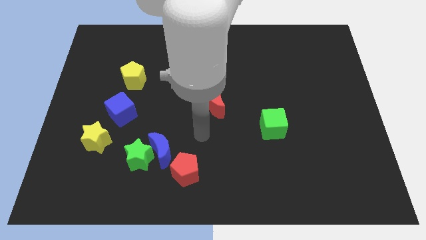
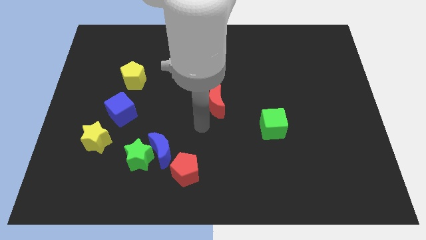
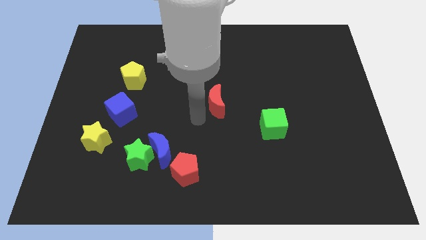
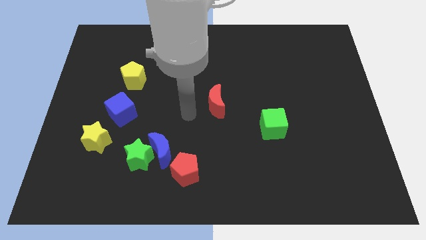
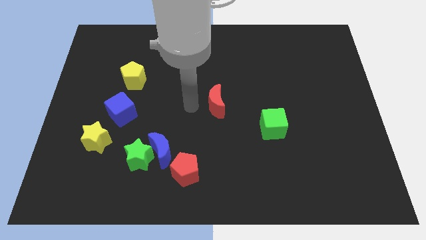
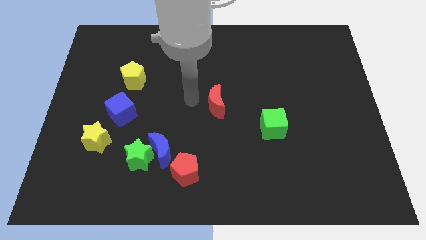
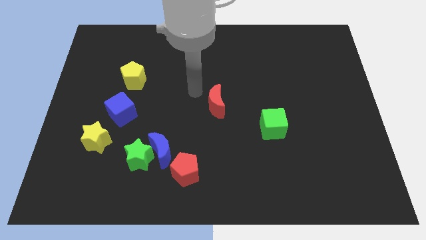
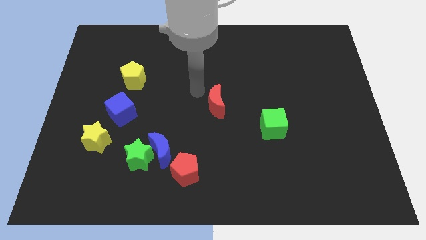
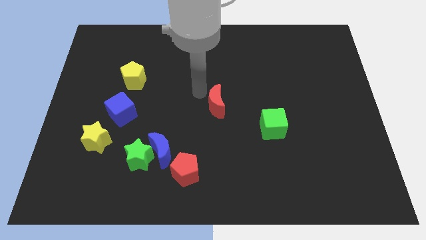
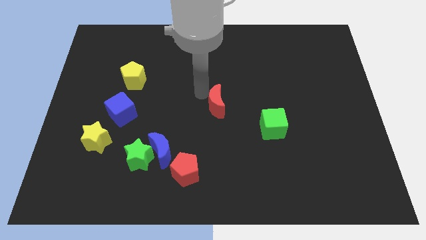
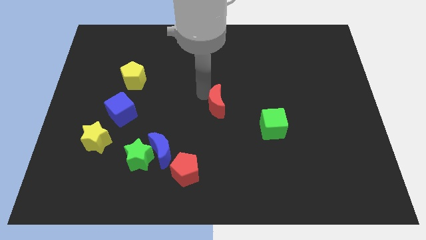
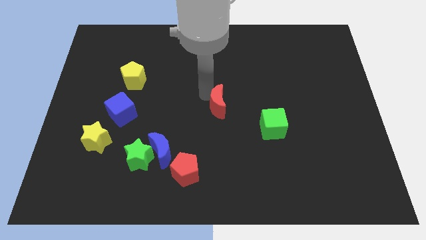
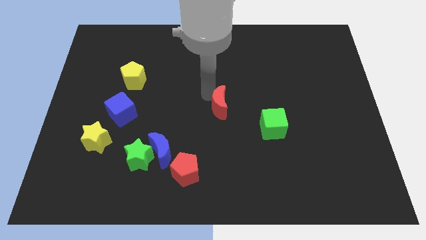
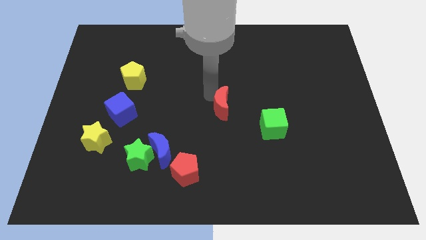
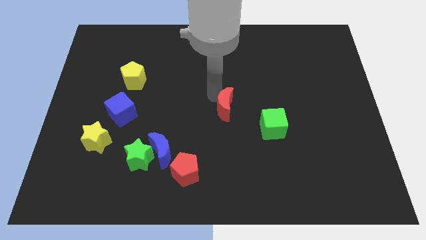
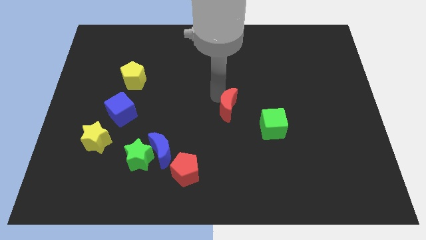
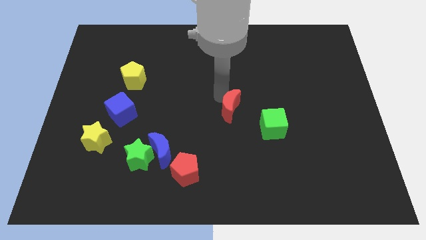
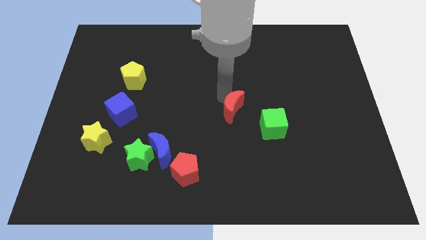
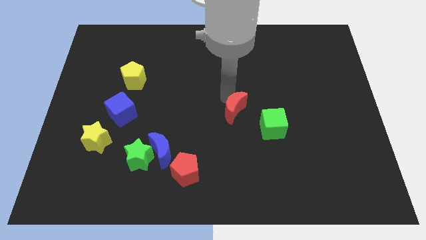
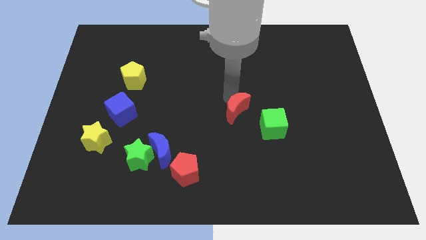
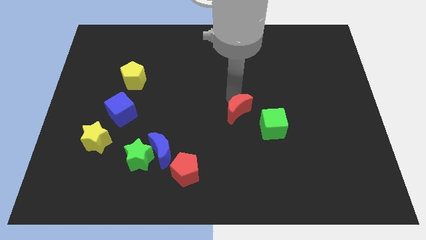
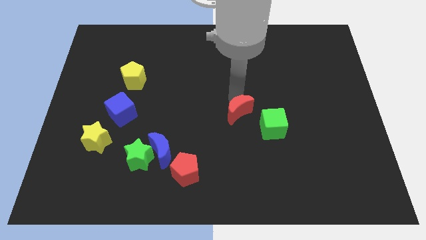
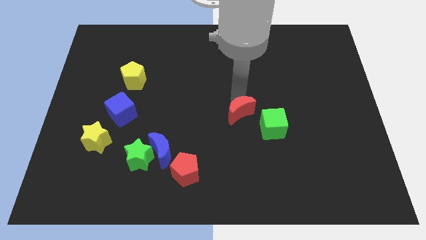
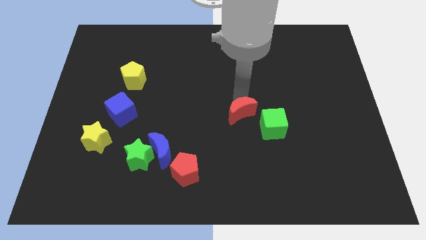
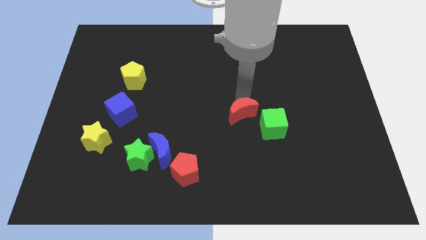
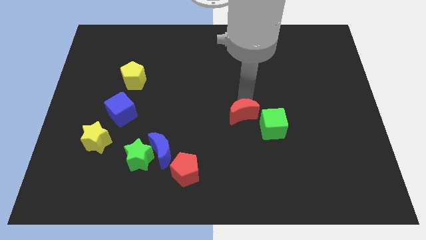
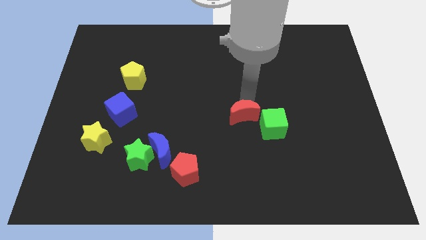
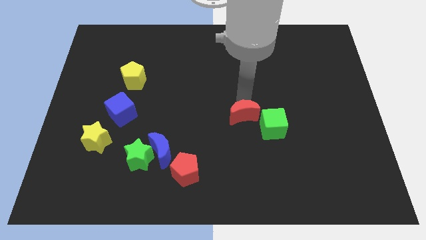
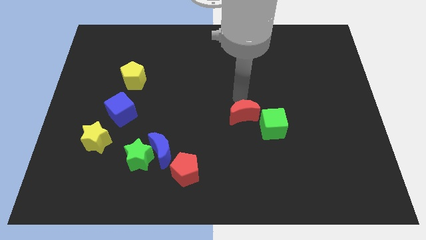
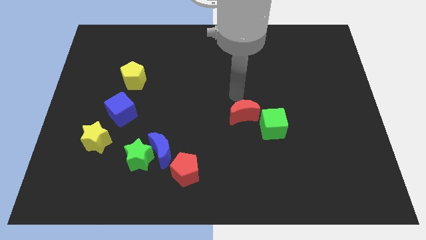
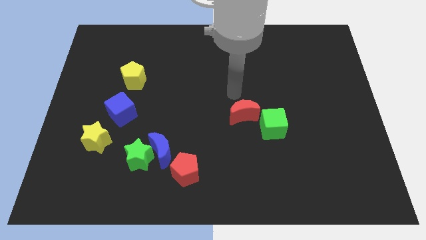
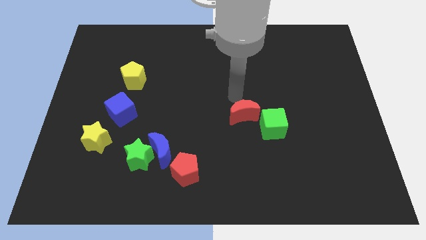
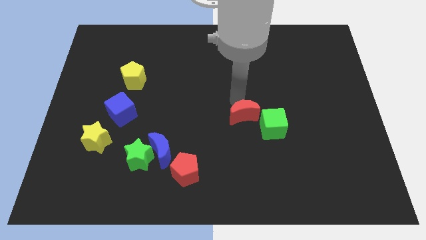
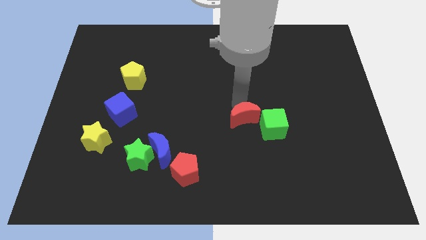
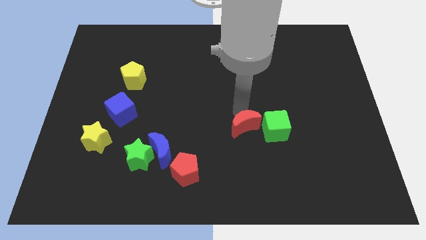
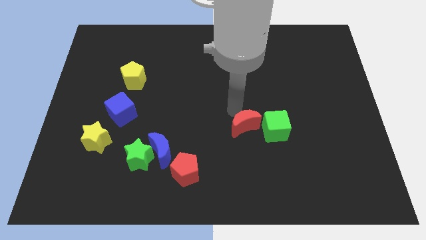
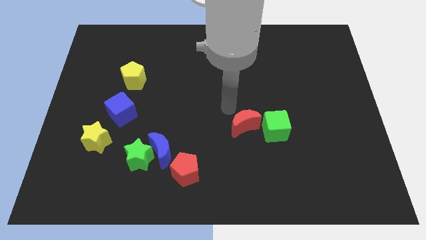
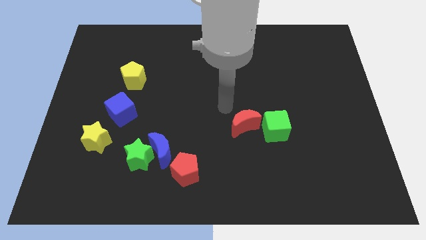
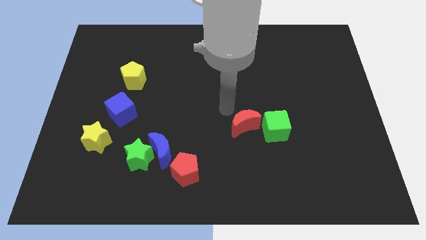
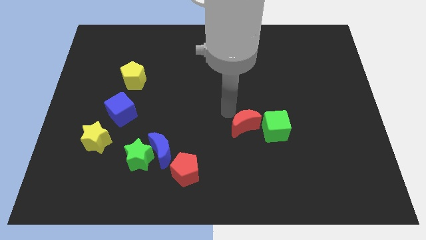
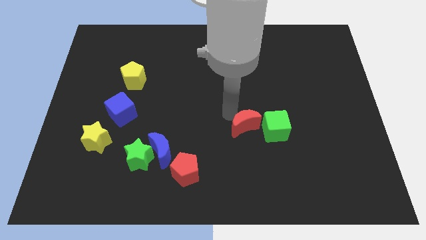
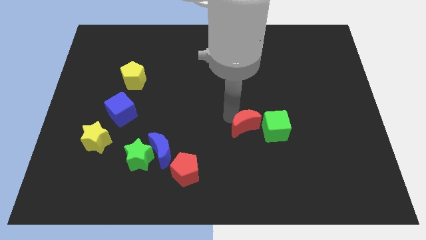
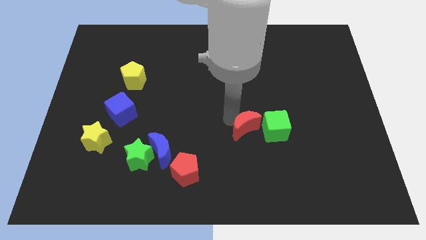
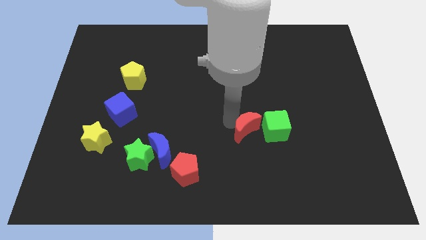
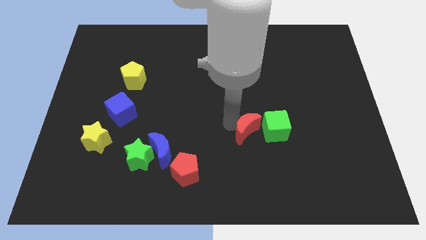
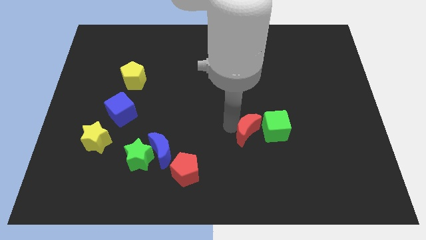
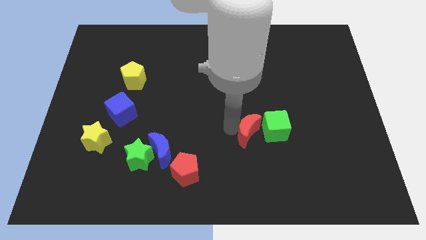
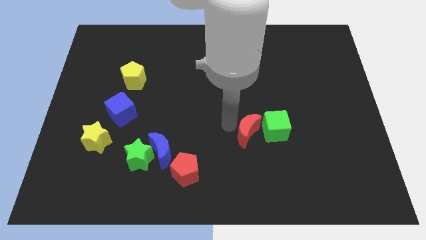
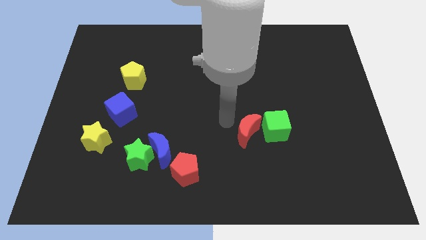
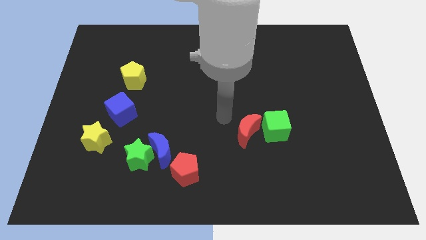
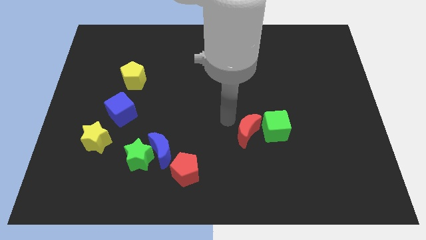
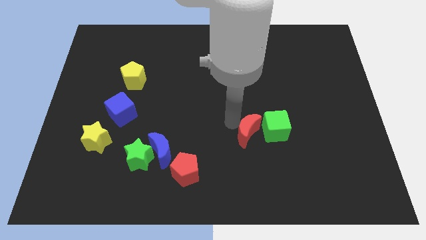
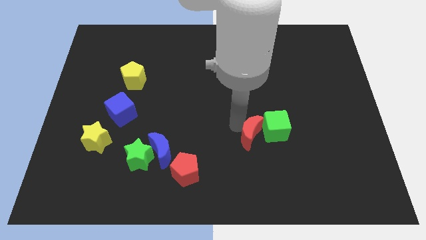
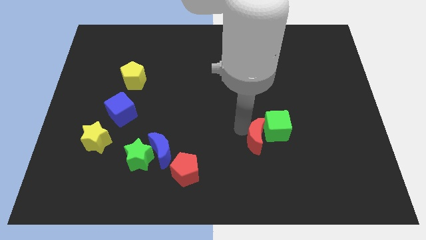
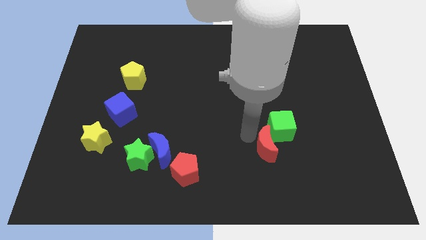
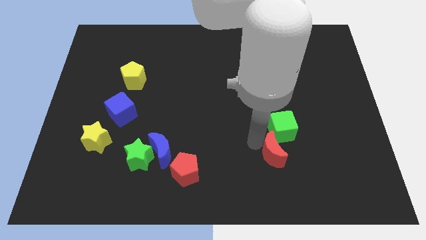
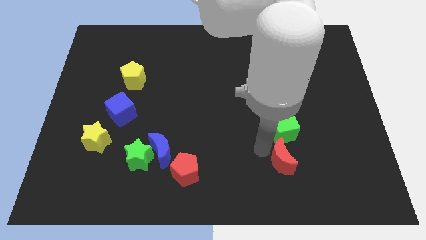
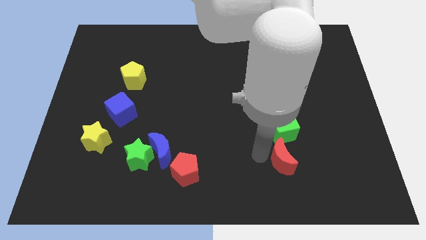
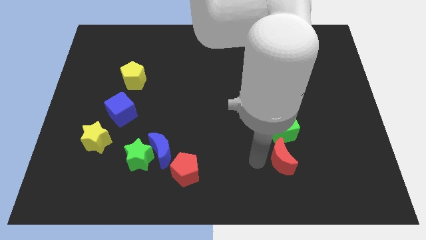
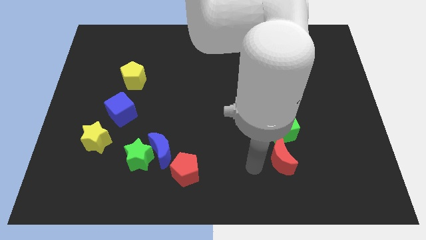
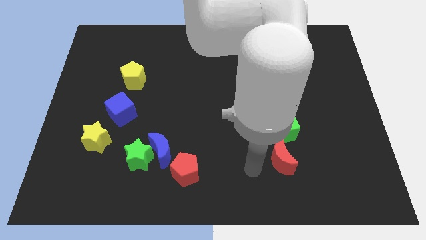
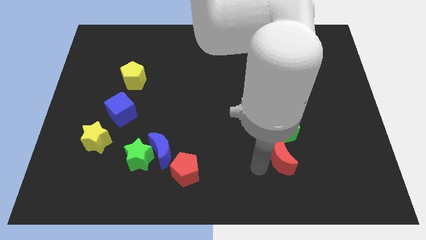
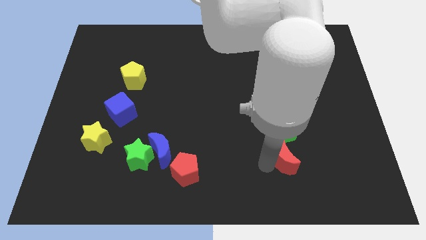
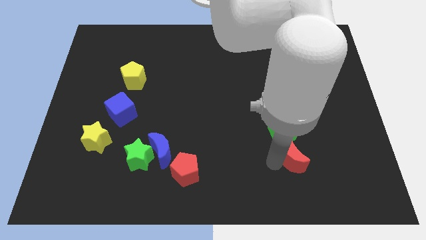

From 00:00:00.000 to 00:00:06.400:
slide the red moon to the bottom right of the green cube
